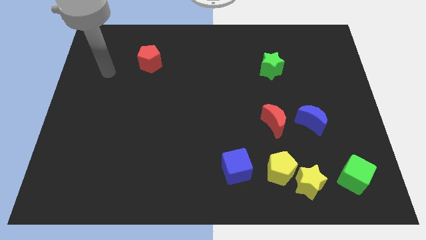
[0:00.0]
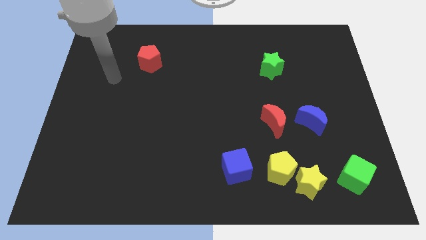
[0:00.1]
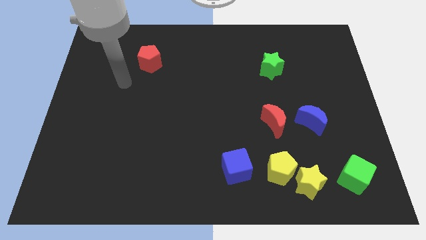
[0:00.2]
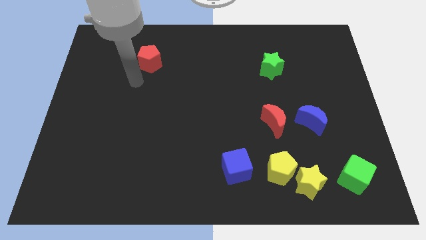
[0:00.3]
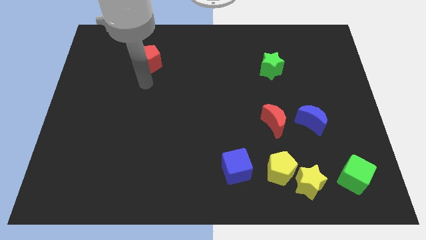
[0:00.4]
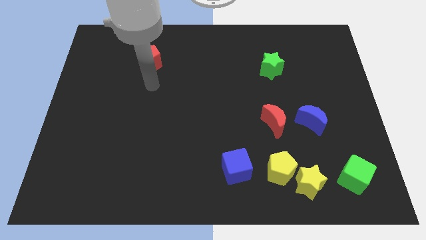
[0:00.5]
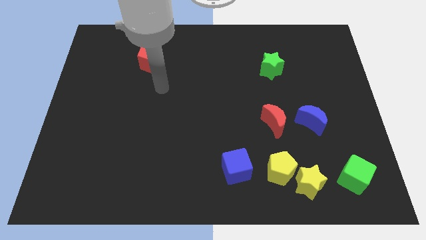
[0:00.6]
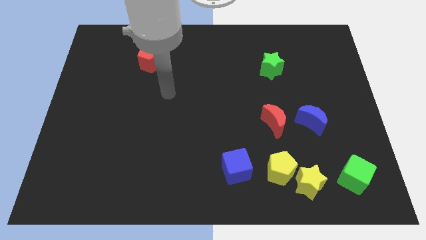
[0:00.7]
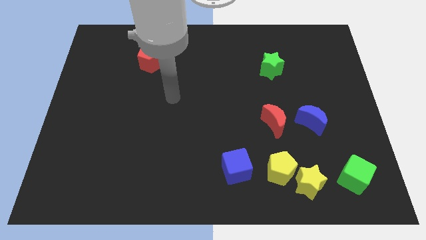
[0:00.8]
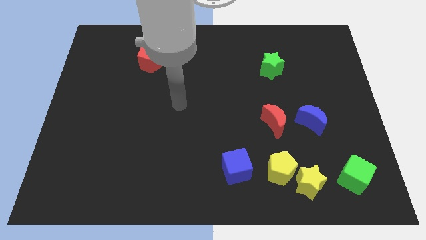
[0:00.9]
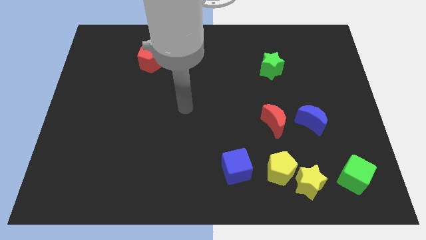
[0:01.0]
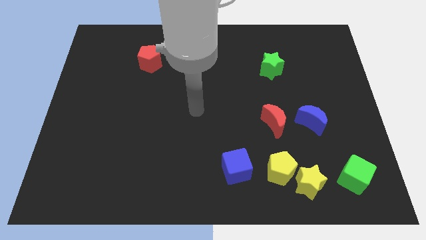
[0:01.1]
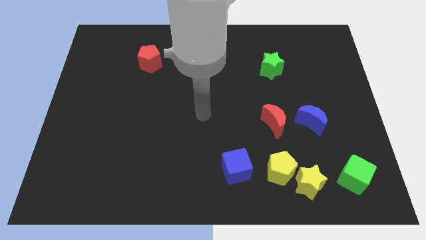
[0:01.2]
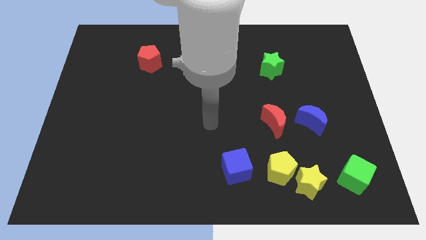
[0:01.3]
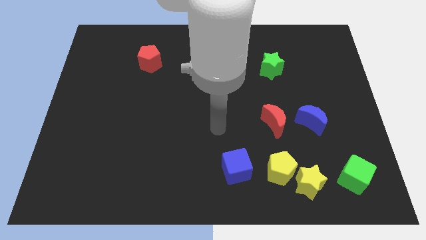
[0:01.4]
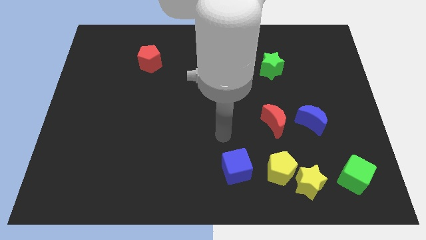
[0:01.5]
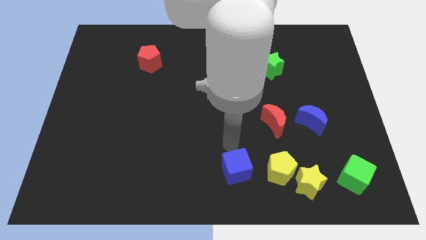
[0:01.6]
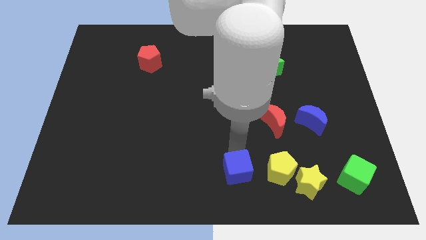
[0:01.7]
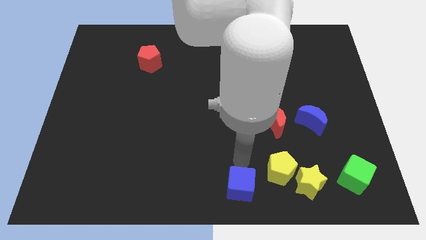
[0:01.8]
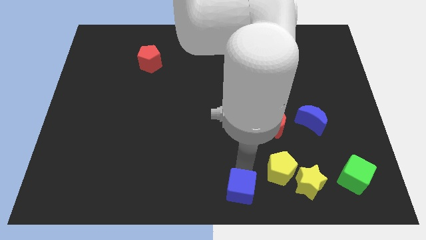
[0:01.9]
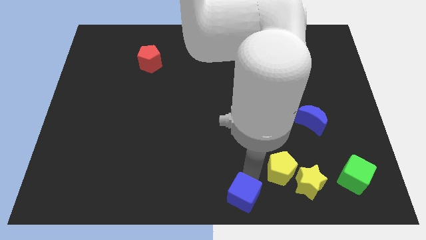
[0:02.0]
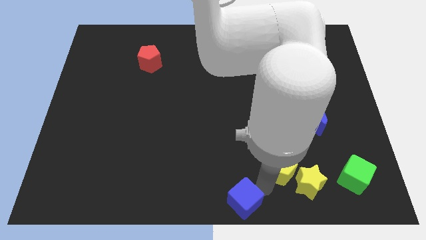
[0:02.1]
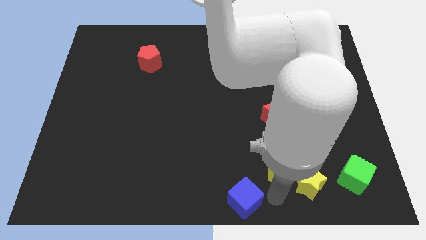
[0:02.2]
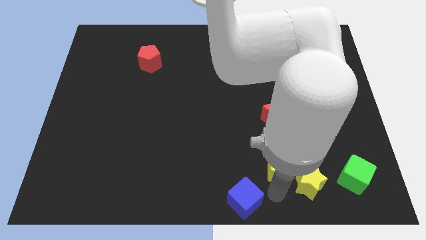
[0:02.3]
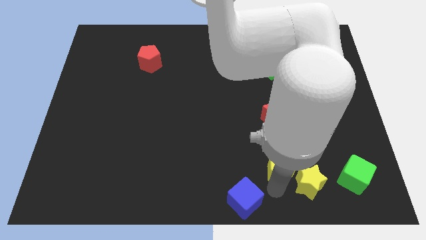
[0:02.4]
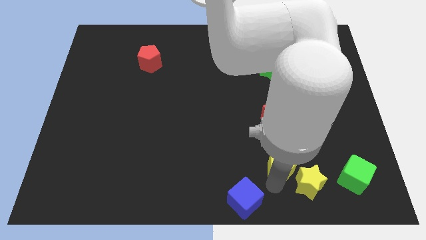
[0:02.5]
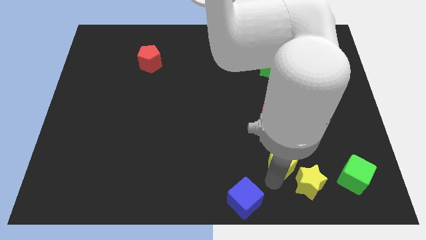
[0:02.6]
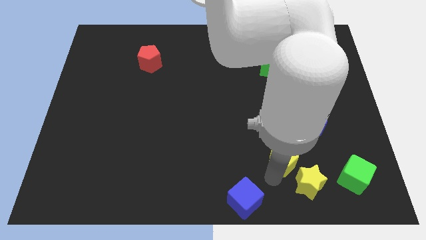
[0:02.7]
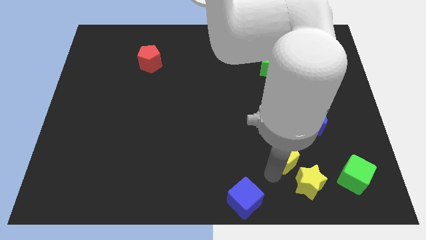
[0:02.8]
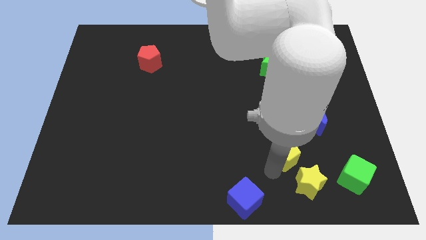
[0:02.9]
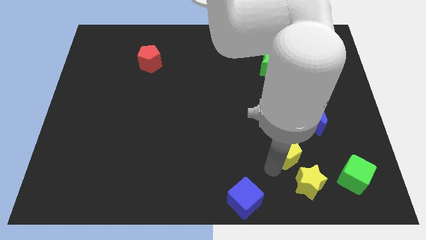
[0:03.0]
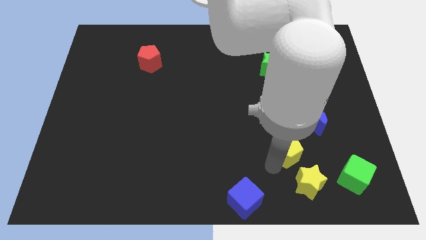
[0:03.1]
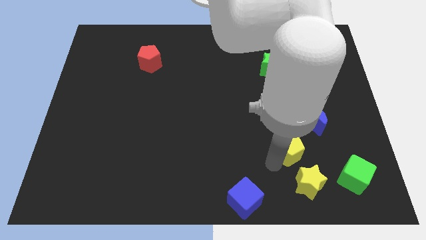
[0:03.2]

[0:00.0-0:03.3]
separate the yellow pentagon from the yellow star and blue cube

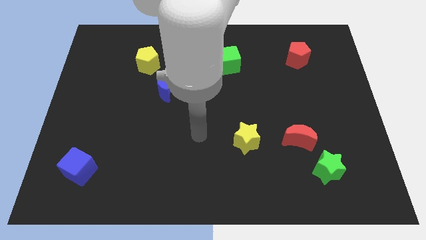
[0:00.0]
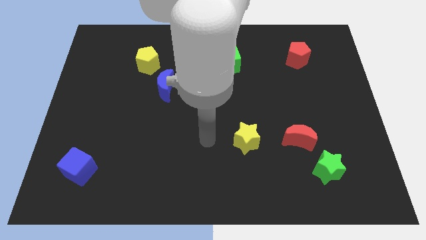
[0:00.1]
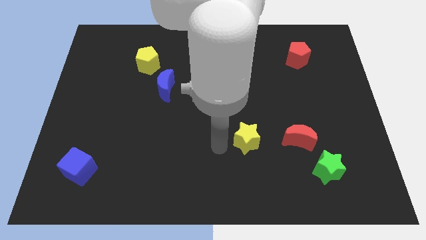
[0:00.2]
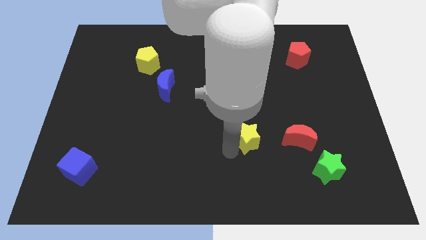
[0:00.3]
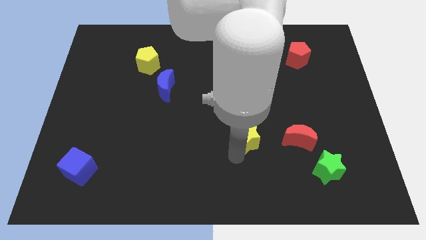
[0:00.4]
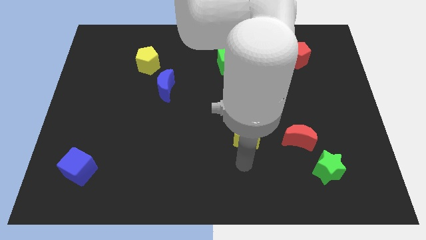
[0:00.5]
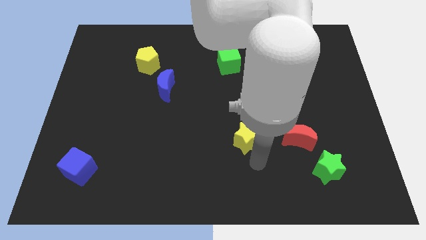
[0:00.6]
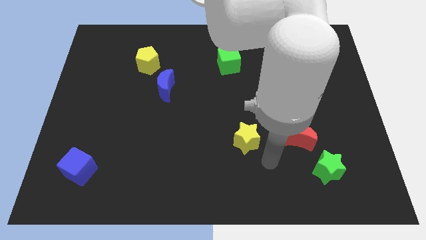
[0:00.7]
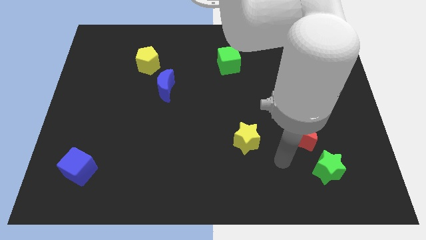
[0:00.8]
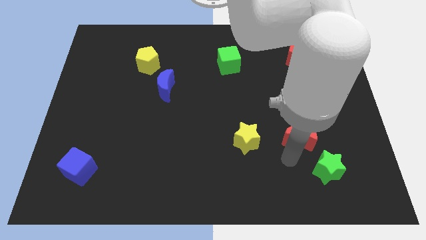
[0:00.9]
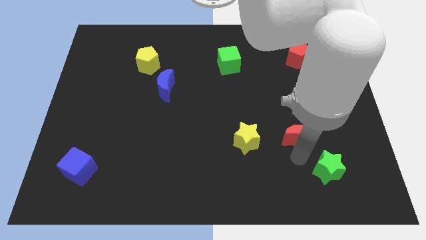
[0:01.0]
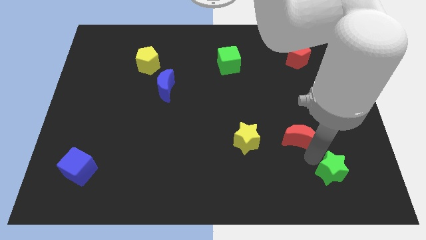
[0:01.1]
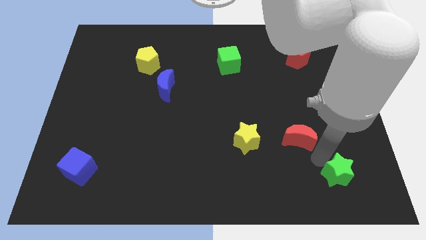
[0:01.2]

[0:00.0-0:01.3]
pull the red moon apart from the green star

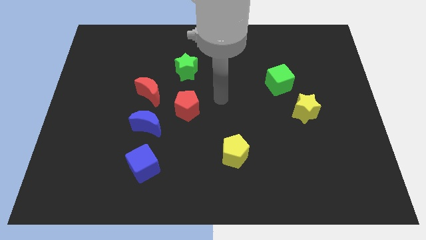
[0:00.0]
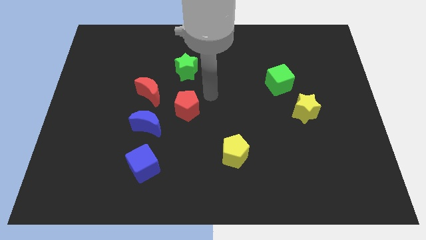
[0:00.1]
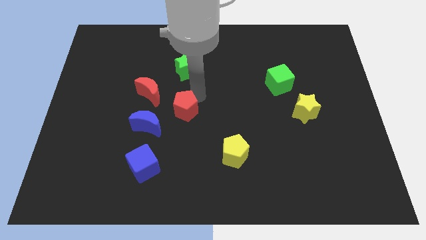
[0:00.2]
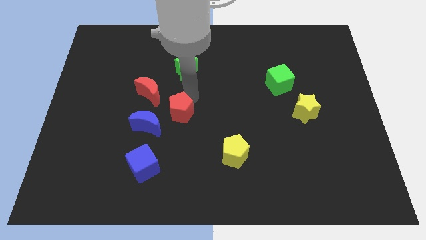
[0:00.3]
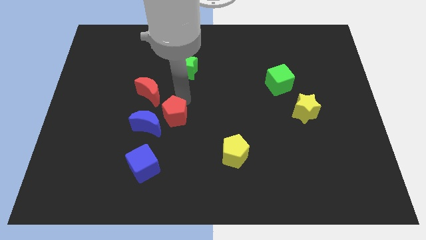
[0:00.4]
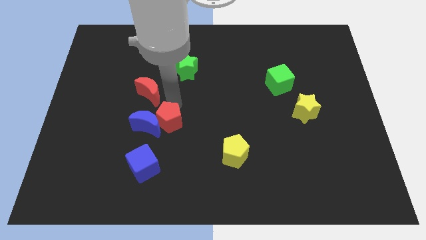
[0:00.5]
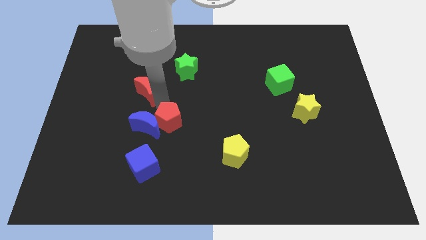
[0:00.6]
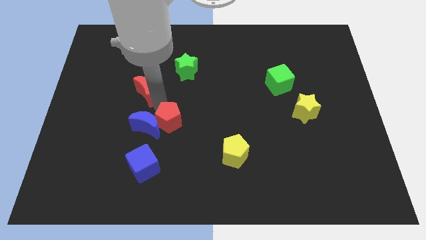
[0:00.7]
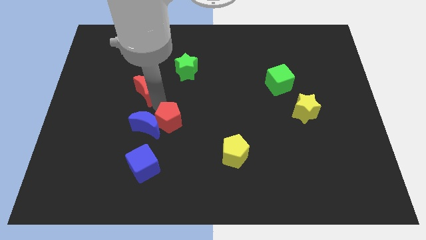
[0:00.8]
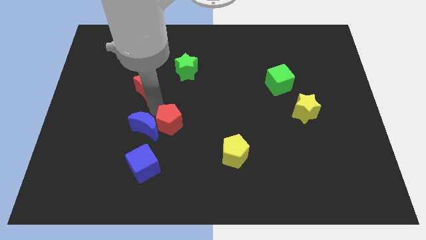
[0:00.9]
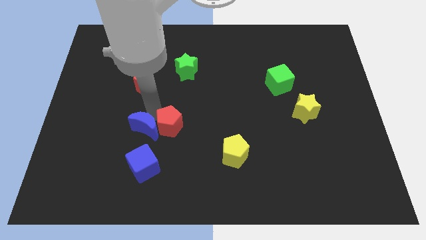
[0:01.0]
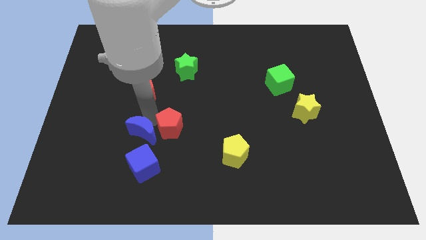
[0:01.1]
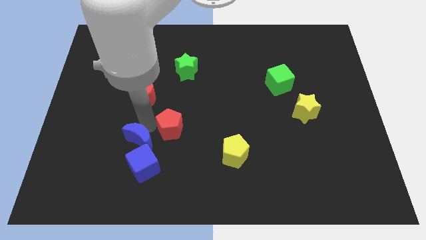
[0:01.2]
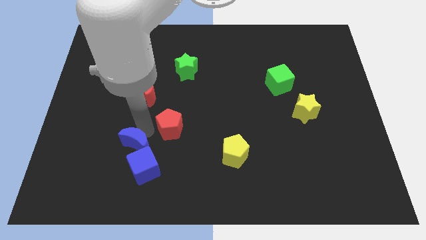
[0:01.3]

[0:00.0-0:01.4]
move the blue moon away from the red moon and red pentagon

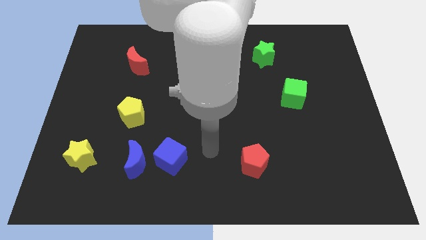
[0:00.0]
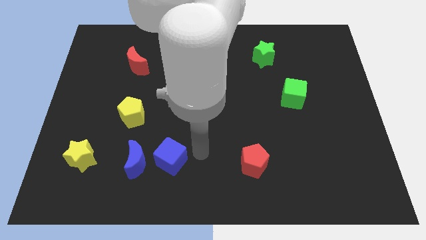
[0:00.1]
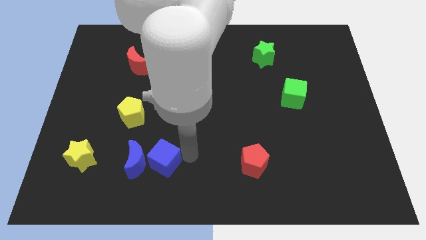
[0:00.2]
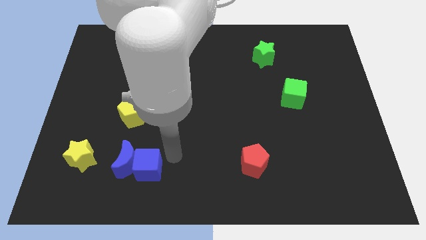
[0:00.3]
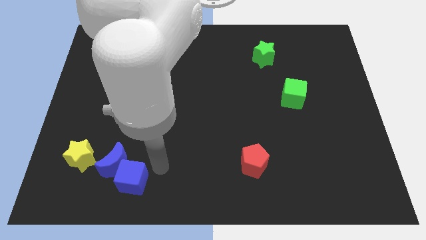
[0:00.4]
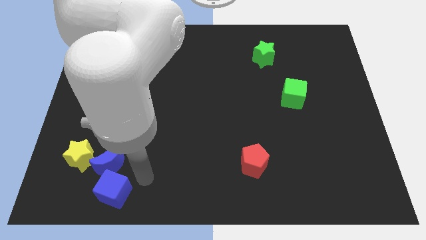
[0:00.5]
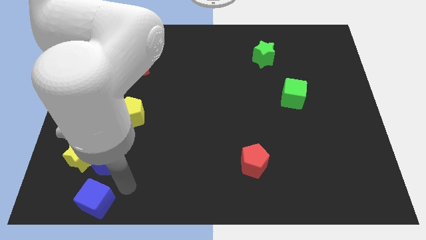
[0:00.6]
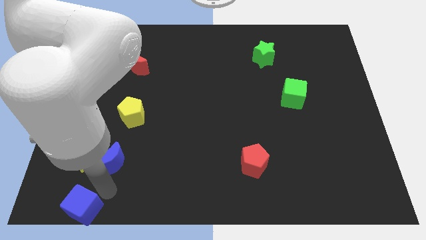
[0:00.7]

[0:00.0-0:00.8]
move the blue moon away from the blue cube

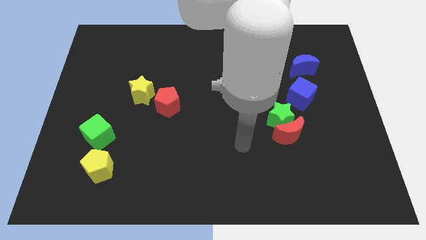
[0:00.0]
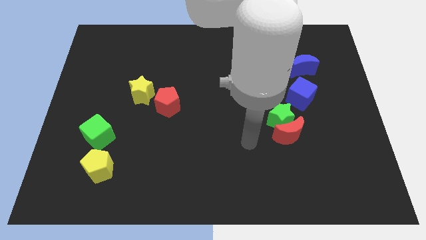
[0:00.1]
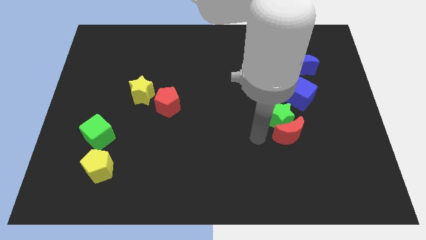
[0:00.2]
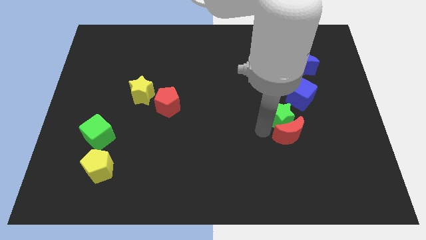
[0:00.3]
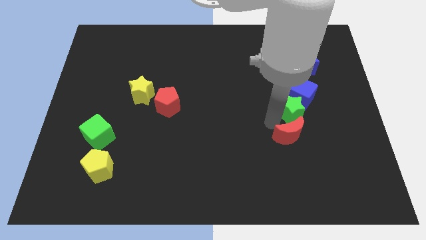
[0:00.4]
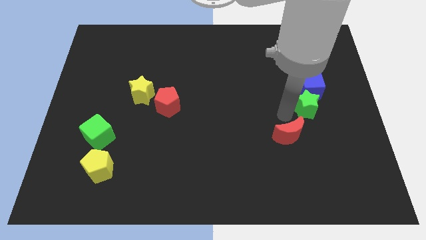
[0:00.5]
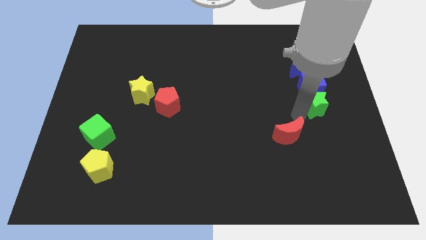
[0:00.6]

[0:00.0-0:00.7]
separate the red moon from the green star

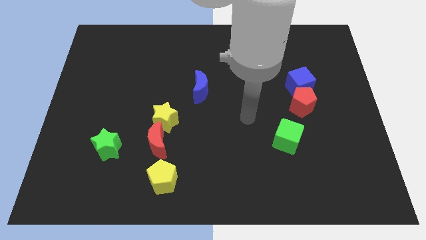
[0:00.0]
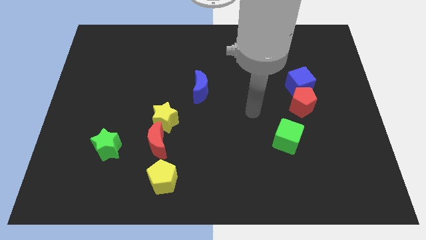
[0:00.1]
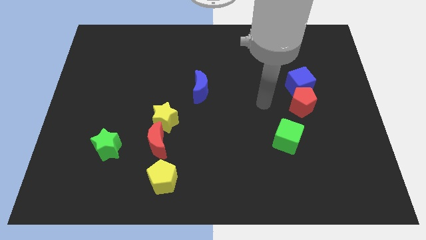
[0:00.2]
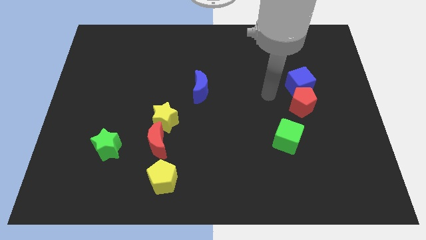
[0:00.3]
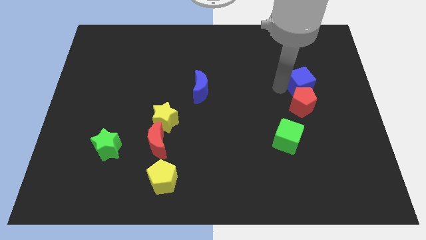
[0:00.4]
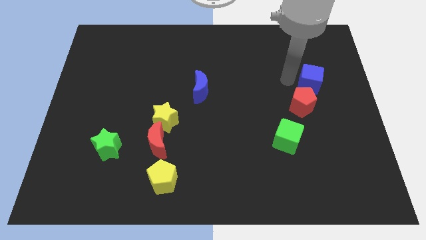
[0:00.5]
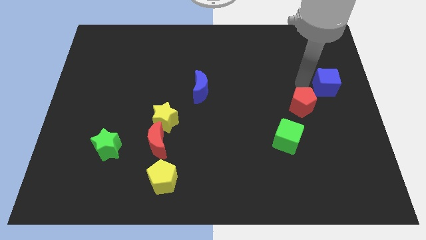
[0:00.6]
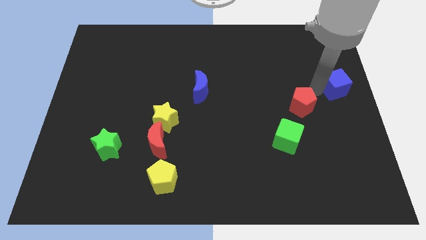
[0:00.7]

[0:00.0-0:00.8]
pull the red pentagon apart from the blue cube

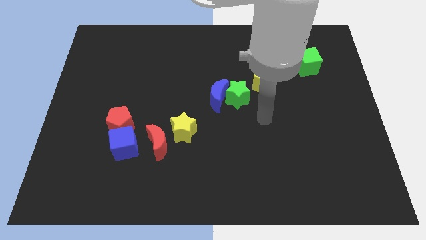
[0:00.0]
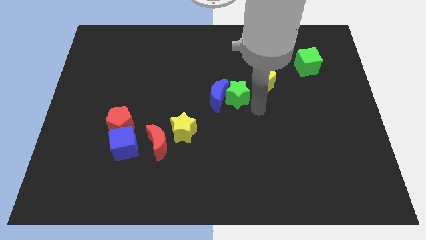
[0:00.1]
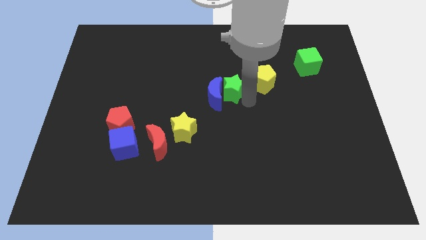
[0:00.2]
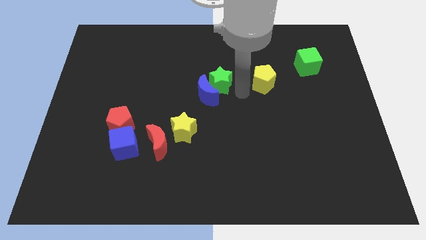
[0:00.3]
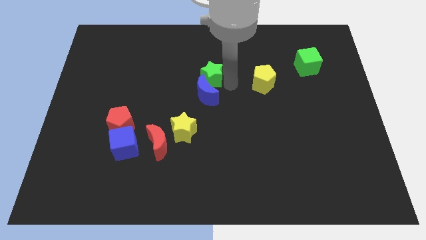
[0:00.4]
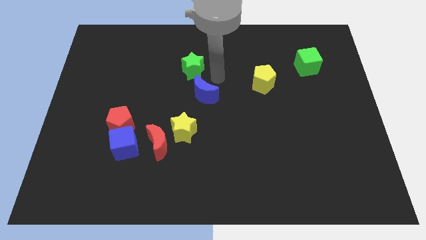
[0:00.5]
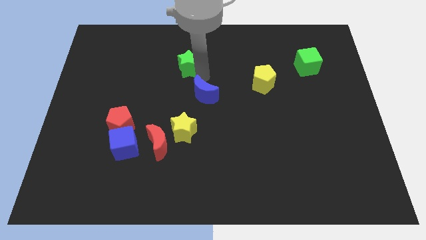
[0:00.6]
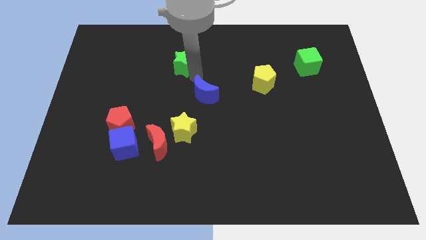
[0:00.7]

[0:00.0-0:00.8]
separate the blue moon from the green star
